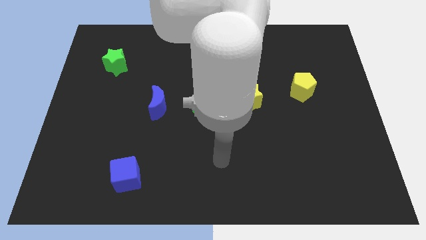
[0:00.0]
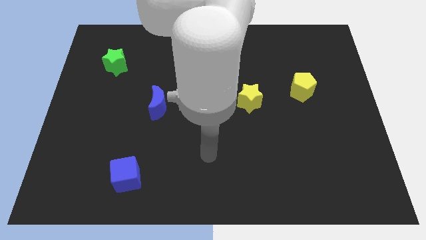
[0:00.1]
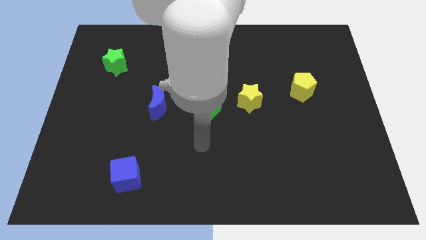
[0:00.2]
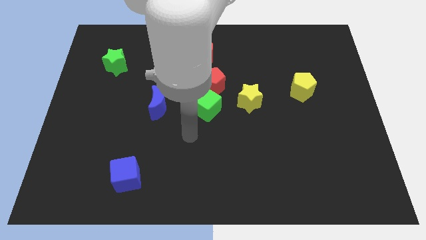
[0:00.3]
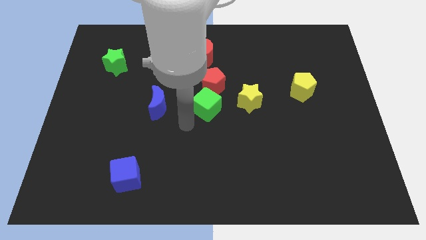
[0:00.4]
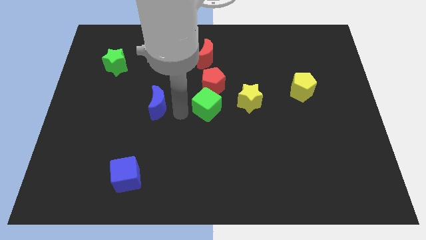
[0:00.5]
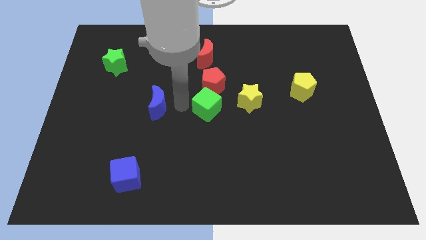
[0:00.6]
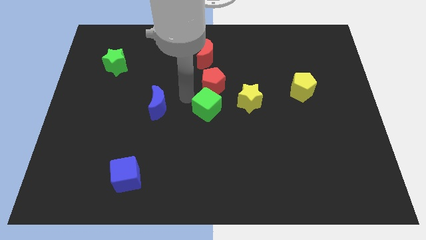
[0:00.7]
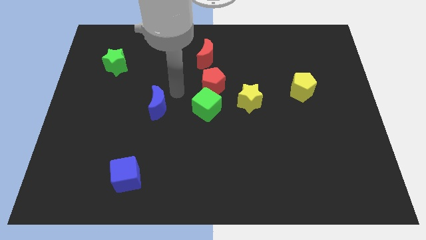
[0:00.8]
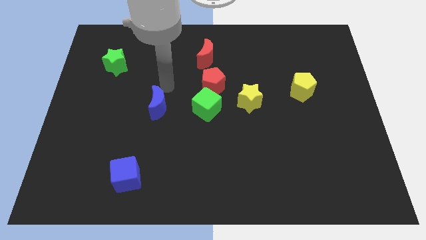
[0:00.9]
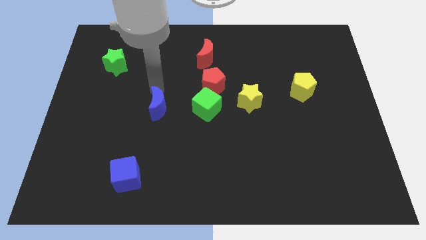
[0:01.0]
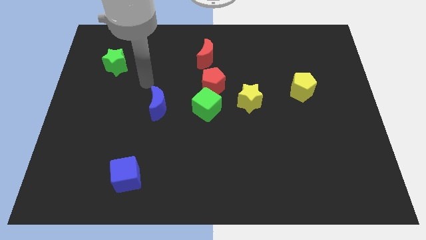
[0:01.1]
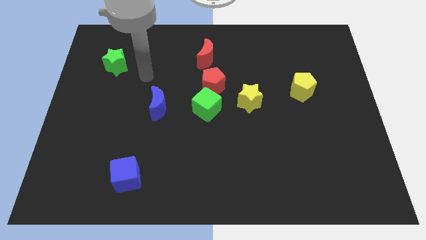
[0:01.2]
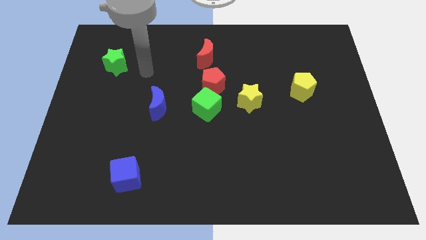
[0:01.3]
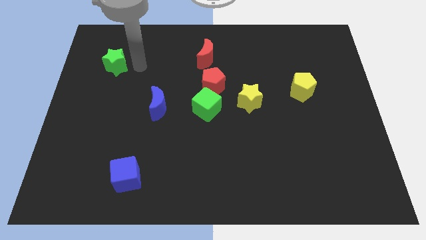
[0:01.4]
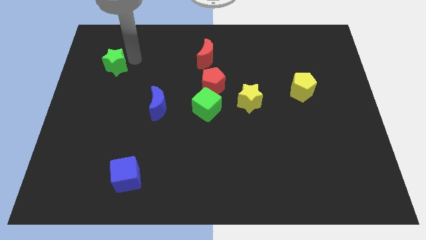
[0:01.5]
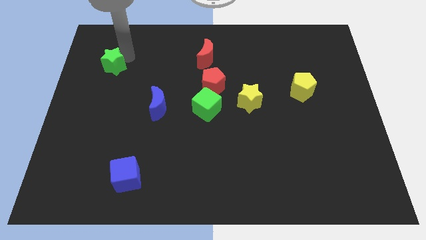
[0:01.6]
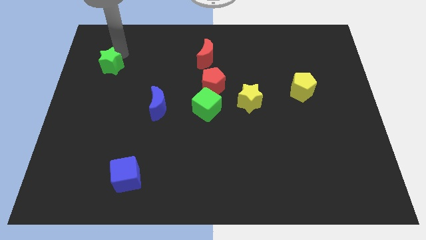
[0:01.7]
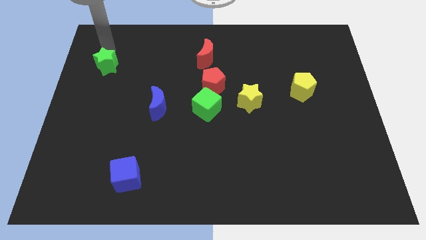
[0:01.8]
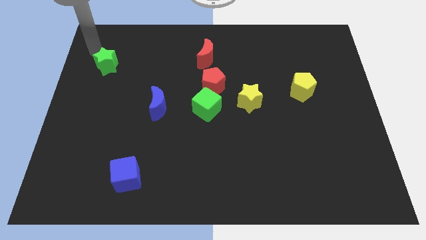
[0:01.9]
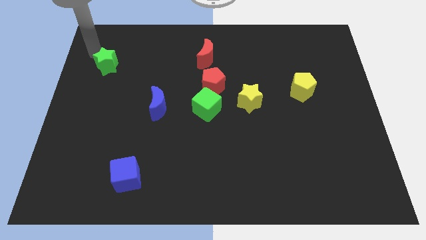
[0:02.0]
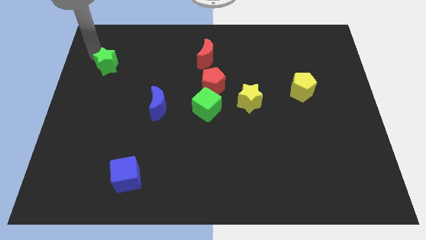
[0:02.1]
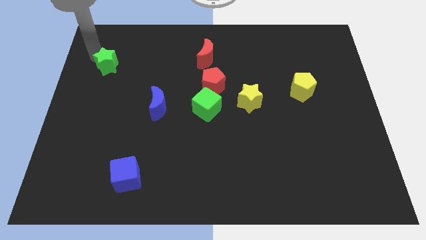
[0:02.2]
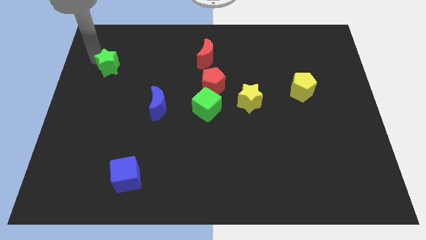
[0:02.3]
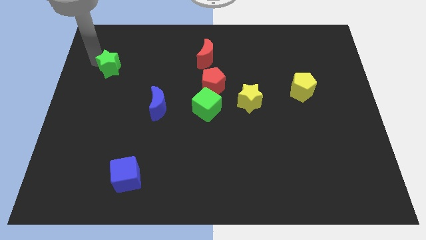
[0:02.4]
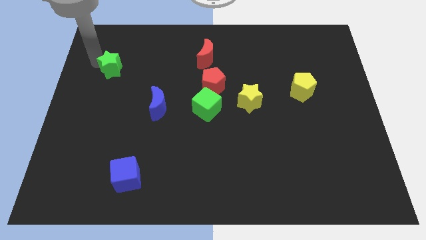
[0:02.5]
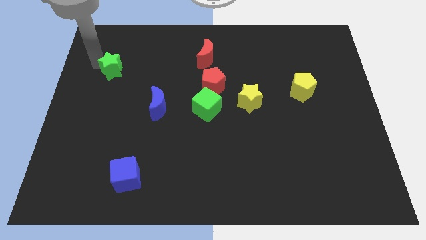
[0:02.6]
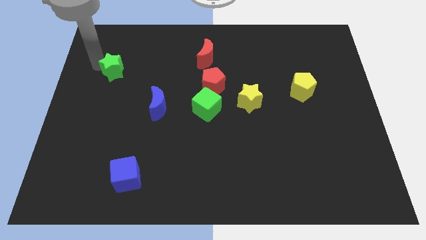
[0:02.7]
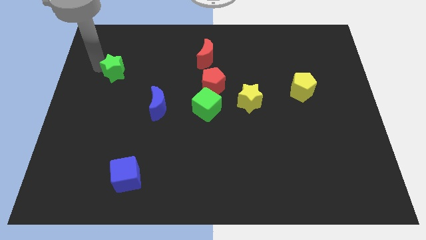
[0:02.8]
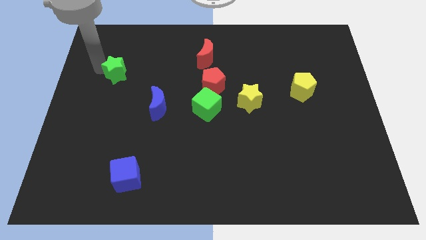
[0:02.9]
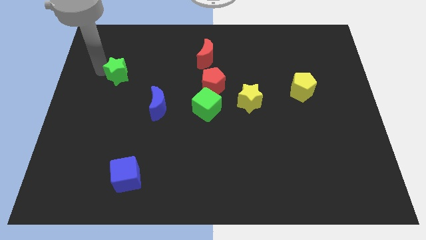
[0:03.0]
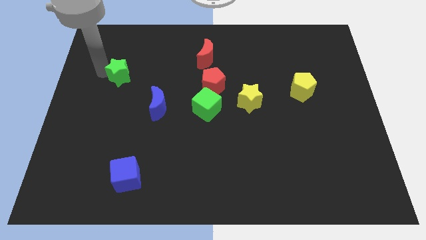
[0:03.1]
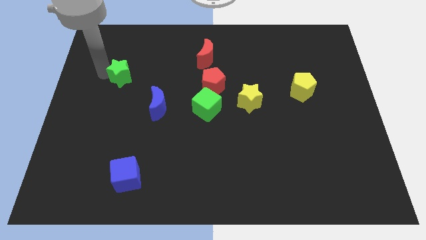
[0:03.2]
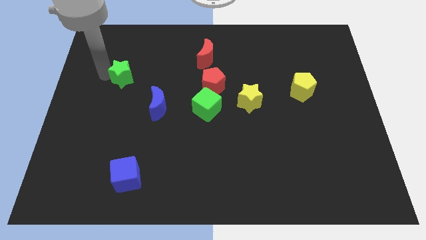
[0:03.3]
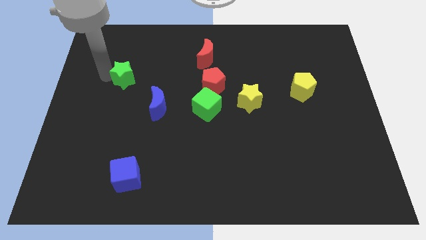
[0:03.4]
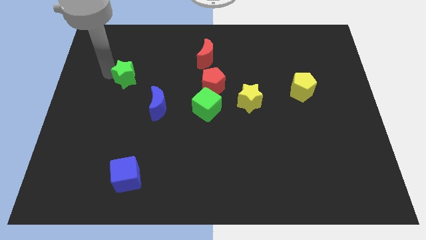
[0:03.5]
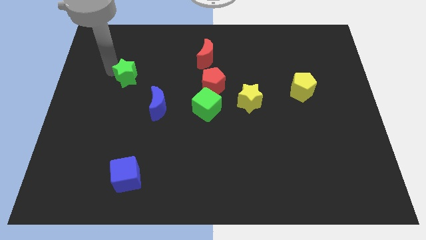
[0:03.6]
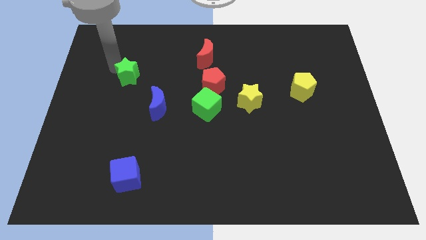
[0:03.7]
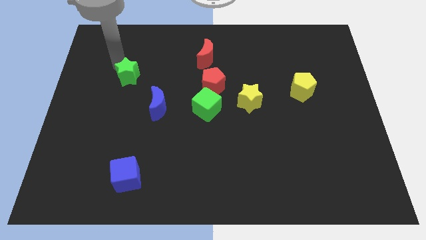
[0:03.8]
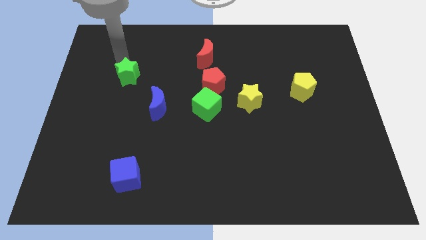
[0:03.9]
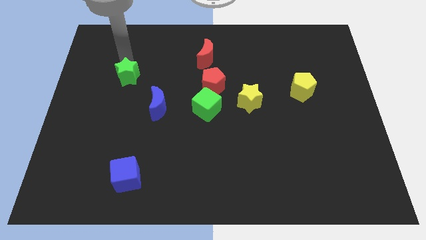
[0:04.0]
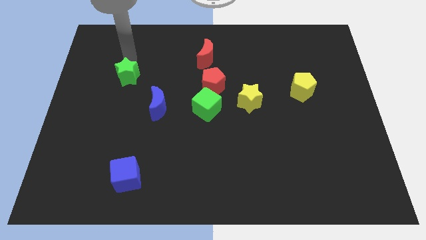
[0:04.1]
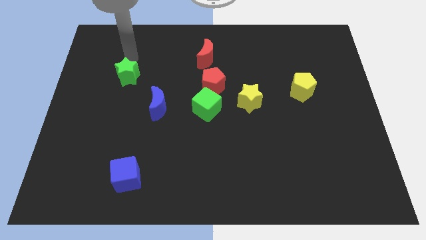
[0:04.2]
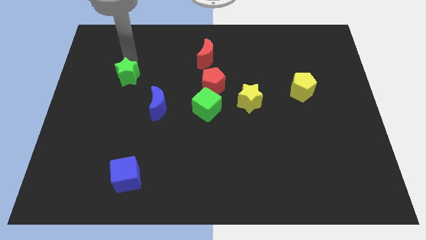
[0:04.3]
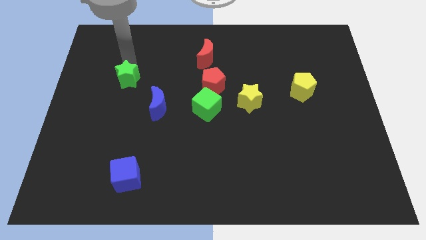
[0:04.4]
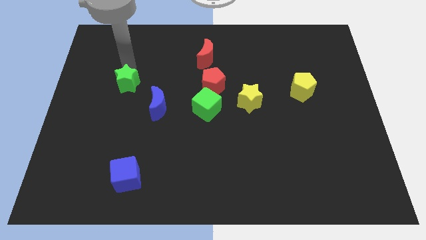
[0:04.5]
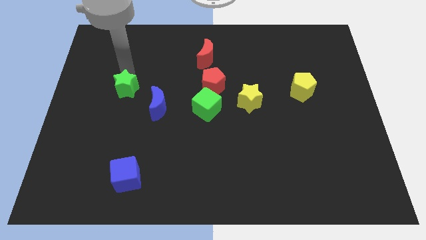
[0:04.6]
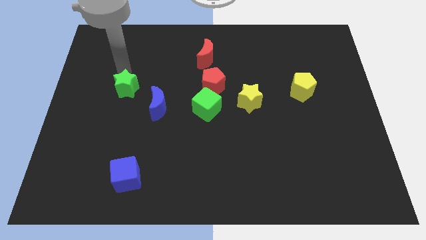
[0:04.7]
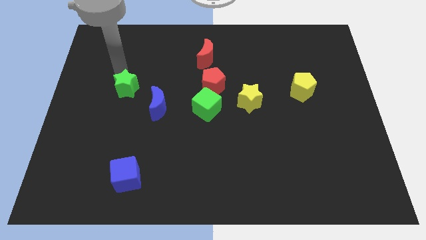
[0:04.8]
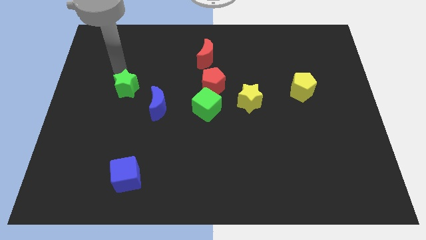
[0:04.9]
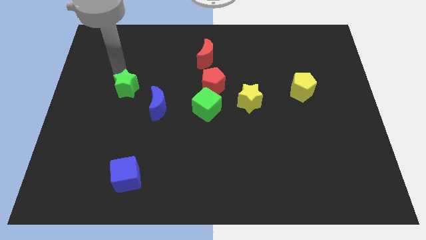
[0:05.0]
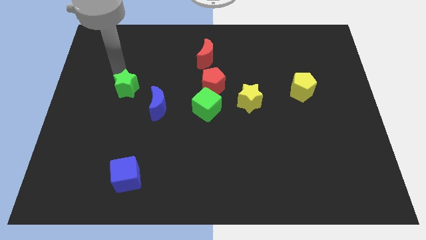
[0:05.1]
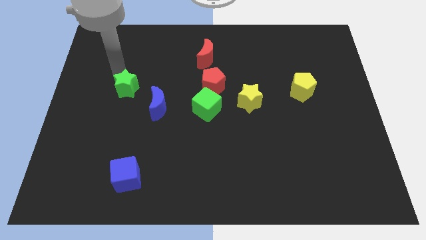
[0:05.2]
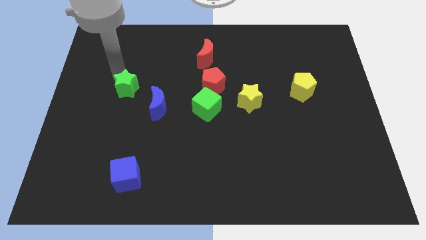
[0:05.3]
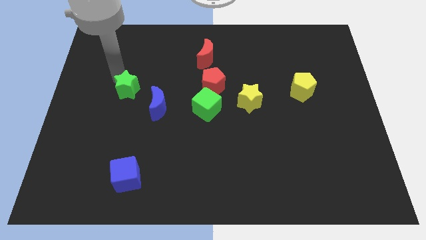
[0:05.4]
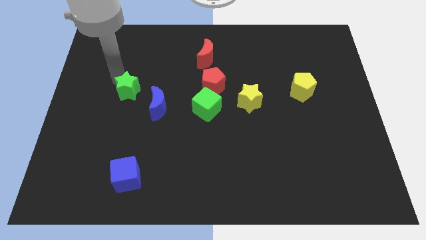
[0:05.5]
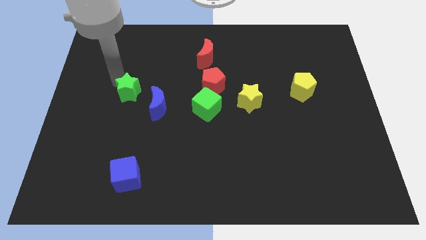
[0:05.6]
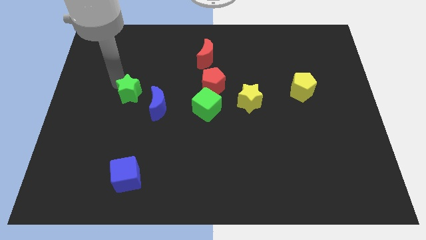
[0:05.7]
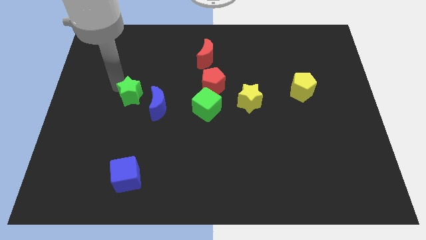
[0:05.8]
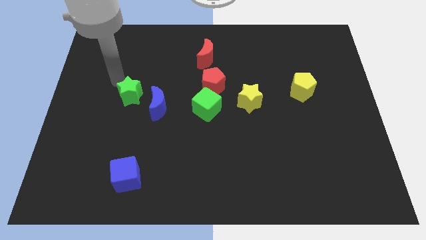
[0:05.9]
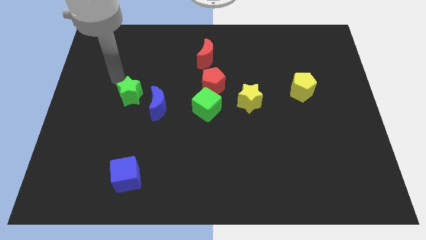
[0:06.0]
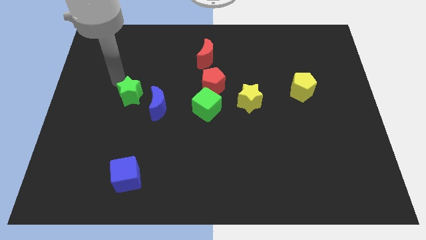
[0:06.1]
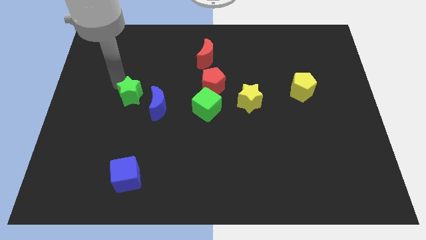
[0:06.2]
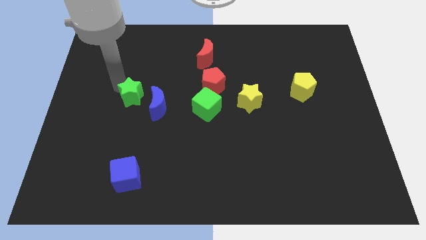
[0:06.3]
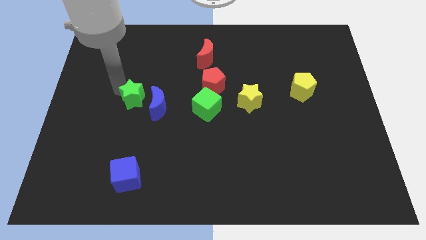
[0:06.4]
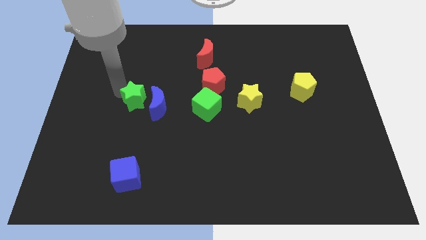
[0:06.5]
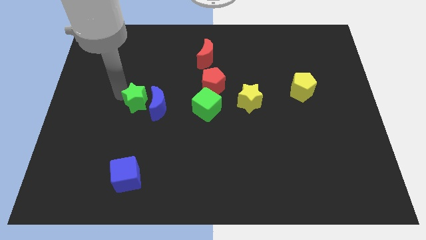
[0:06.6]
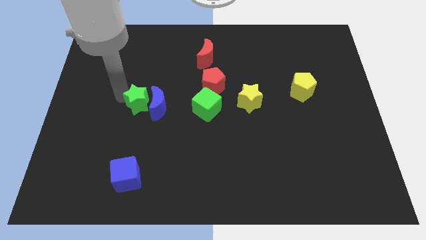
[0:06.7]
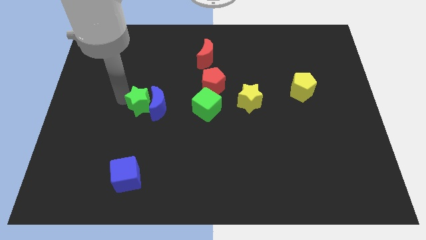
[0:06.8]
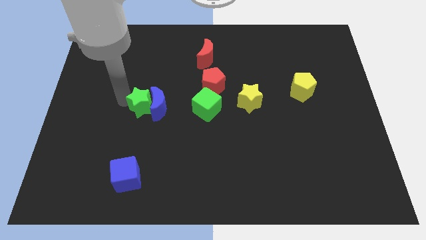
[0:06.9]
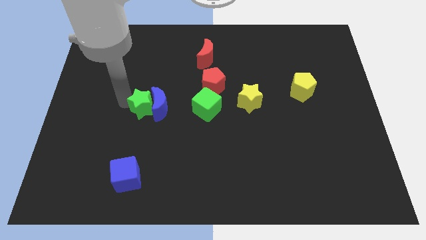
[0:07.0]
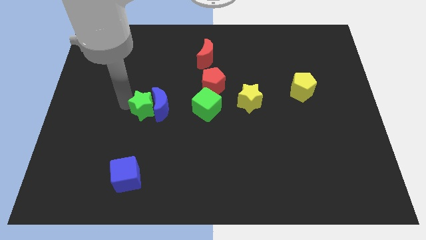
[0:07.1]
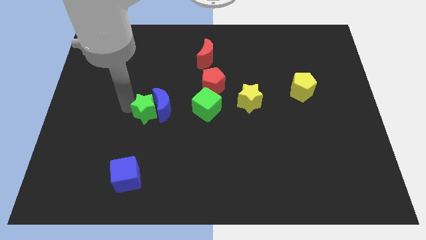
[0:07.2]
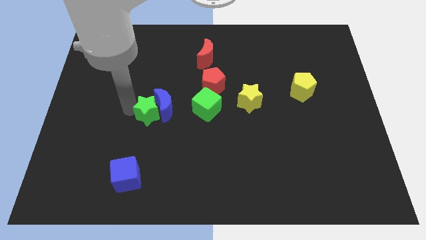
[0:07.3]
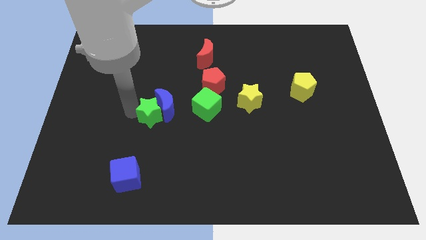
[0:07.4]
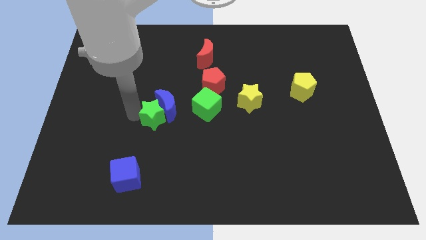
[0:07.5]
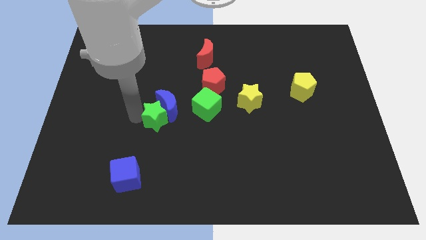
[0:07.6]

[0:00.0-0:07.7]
push the green star diagonally downwards and right

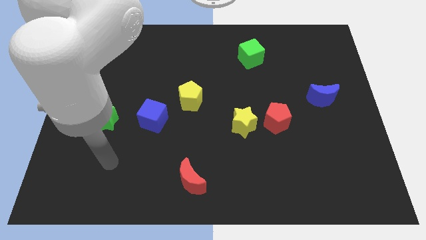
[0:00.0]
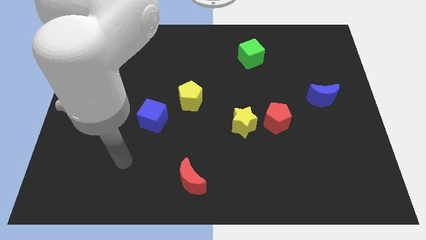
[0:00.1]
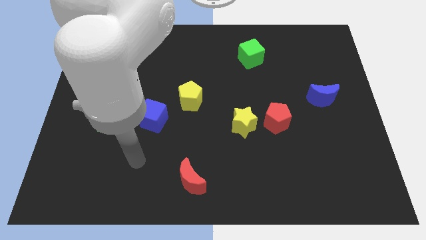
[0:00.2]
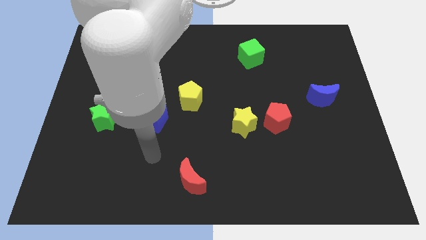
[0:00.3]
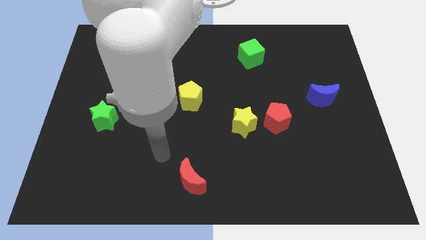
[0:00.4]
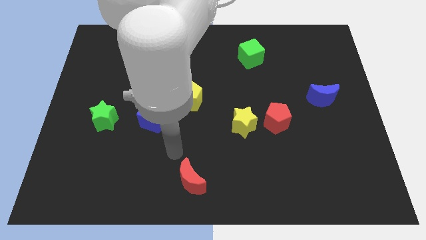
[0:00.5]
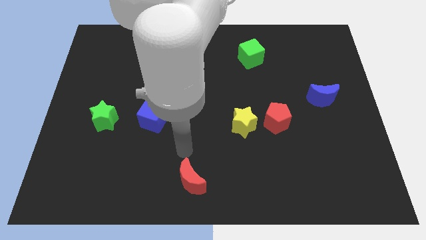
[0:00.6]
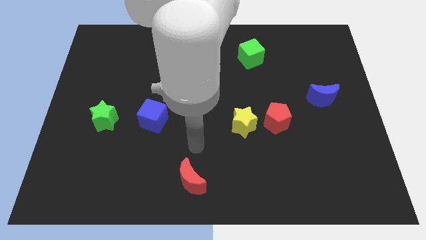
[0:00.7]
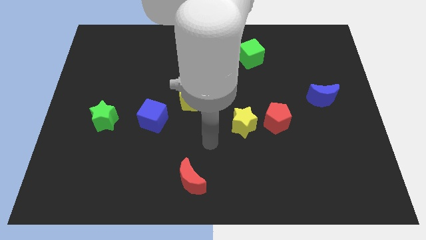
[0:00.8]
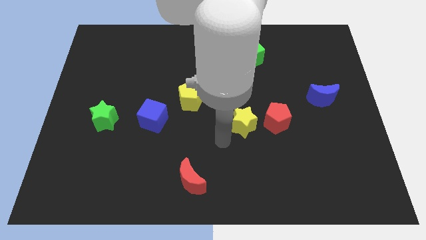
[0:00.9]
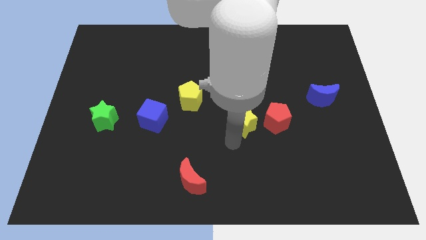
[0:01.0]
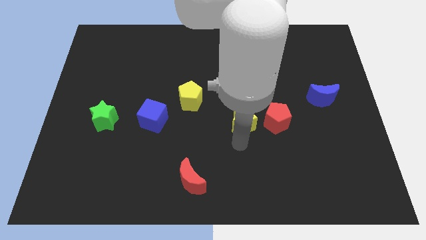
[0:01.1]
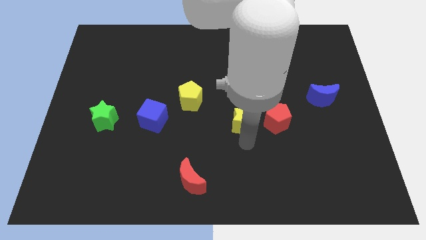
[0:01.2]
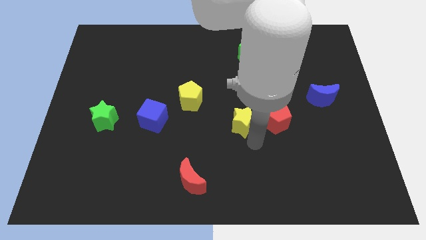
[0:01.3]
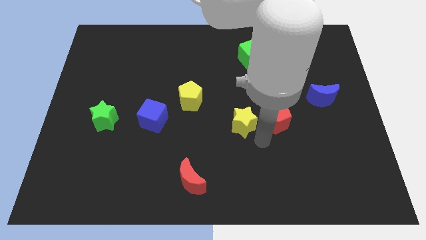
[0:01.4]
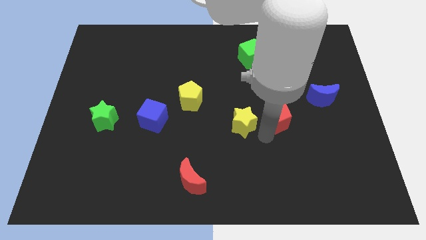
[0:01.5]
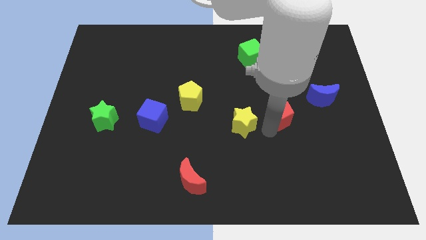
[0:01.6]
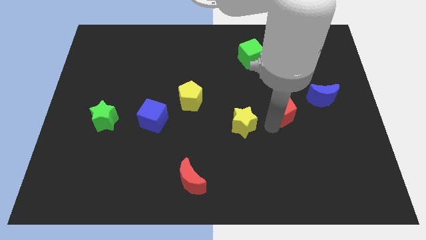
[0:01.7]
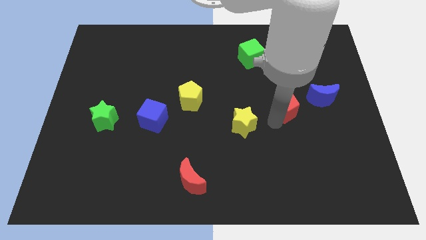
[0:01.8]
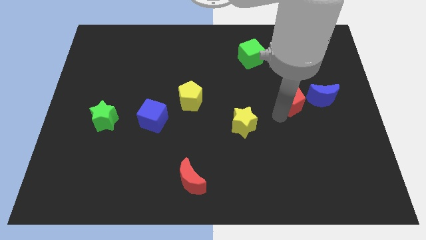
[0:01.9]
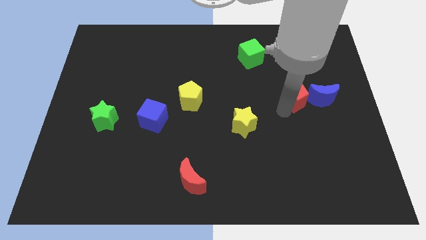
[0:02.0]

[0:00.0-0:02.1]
slide the red pentagon upwards and then right a bit
